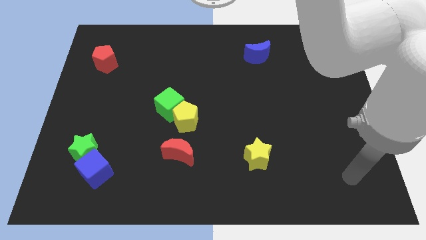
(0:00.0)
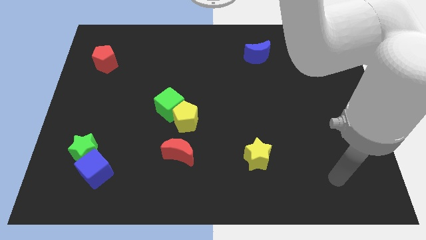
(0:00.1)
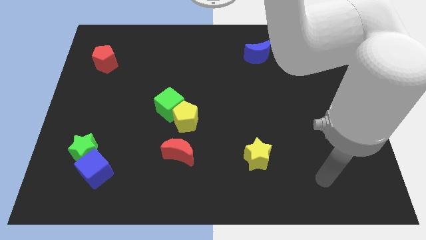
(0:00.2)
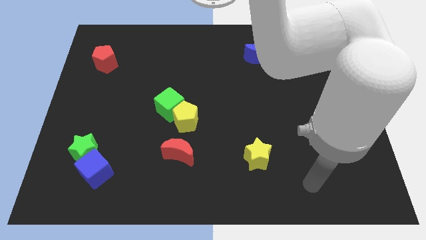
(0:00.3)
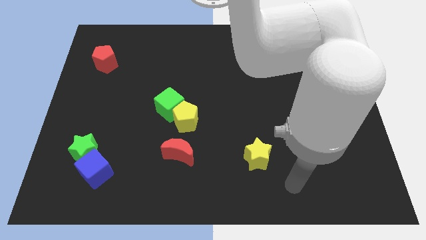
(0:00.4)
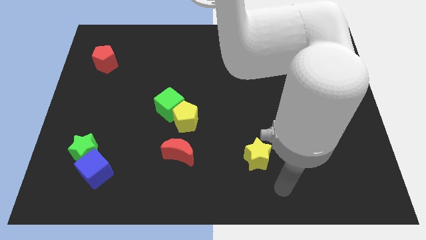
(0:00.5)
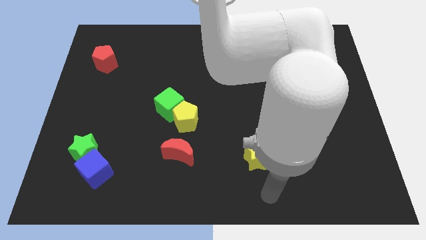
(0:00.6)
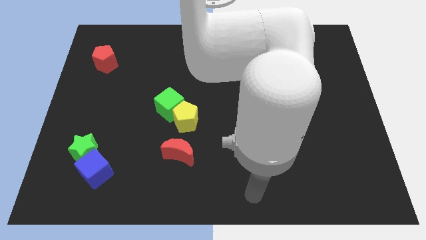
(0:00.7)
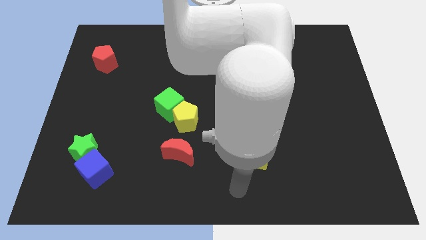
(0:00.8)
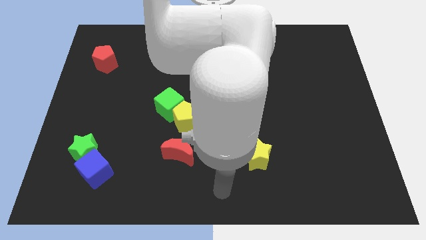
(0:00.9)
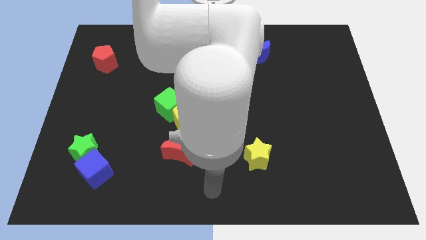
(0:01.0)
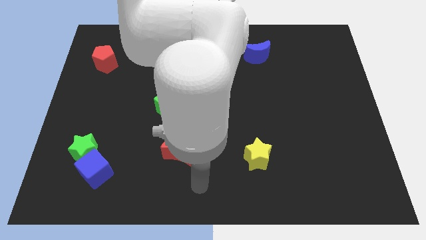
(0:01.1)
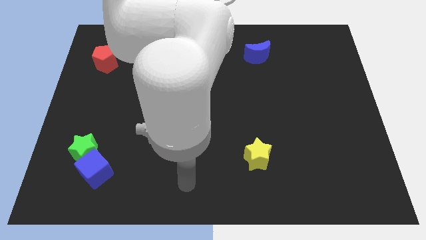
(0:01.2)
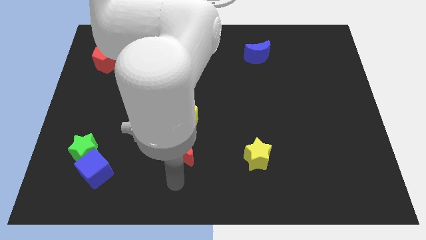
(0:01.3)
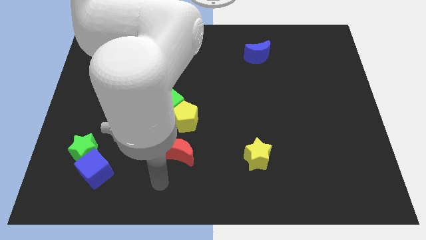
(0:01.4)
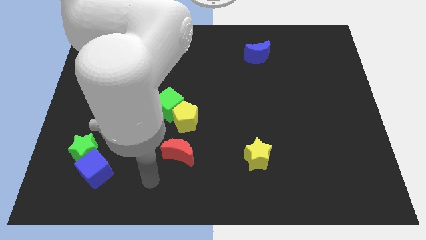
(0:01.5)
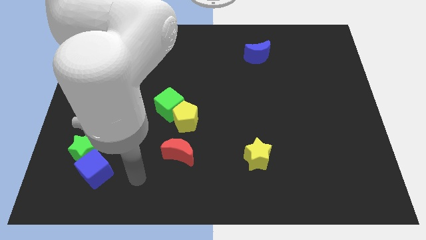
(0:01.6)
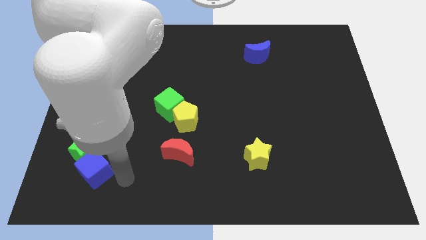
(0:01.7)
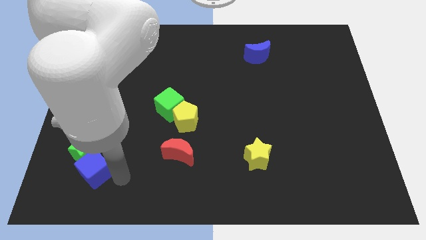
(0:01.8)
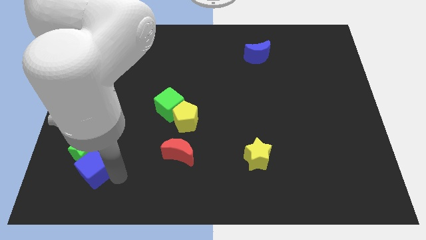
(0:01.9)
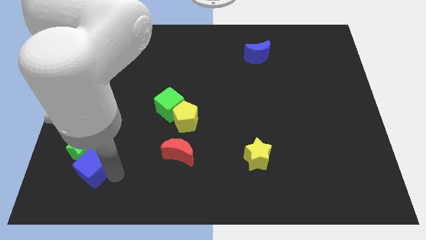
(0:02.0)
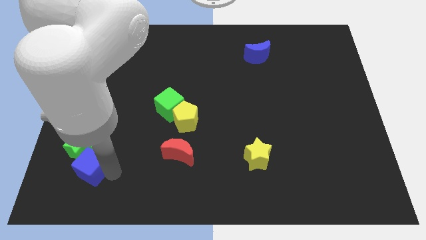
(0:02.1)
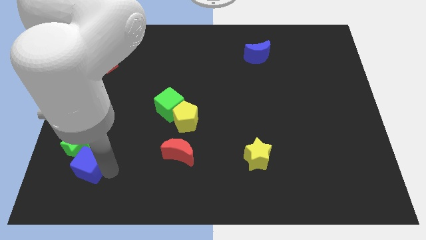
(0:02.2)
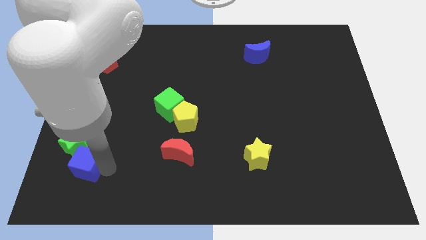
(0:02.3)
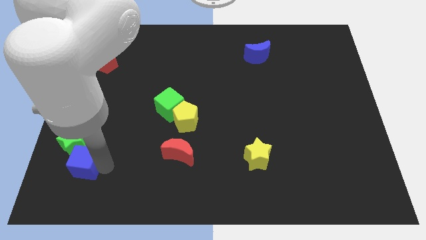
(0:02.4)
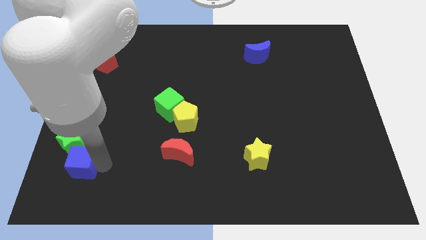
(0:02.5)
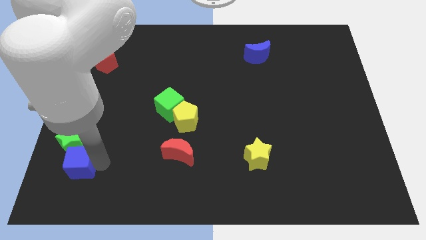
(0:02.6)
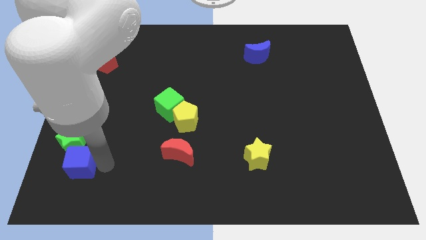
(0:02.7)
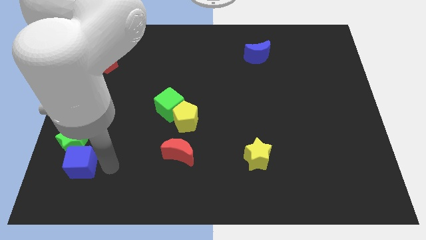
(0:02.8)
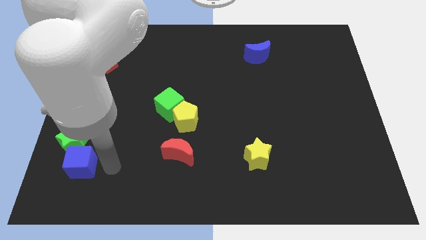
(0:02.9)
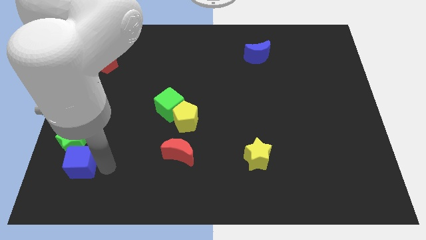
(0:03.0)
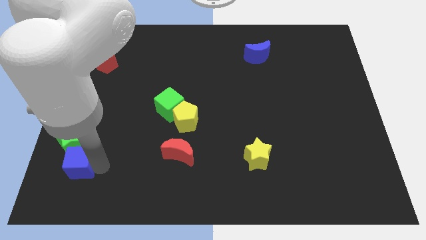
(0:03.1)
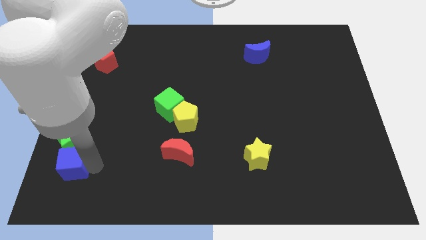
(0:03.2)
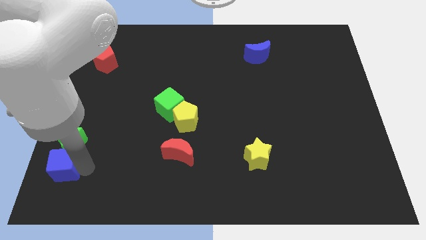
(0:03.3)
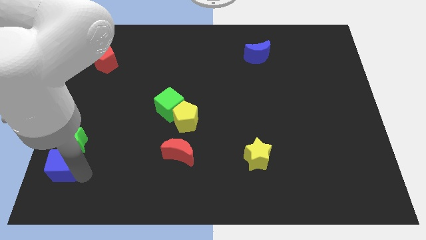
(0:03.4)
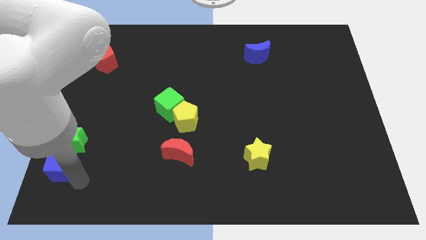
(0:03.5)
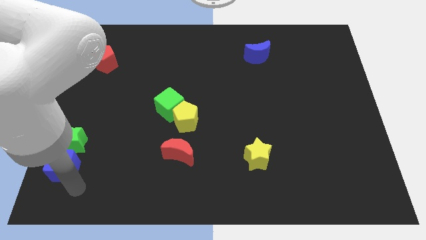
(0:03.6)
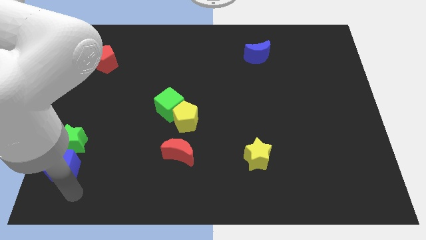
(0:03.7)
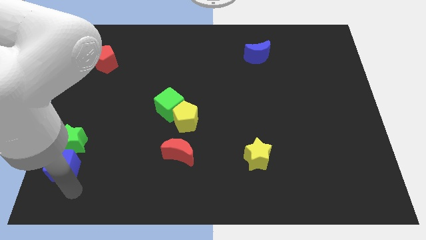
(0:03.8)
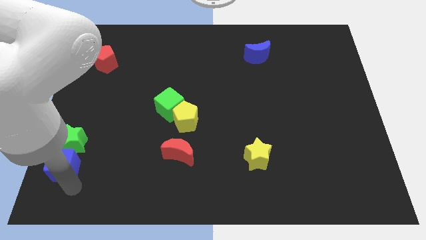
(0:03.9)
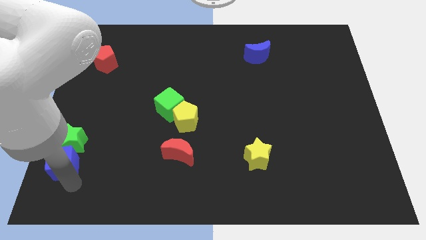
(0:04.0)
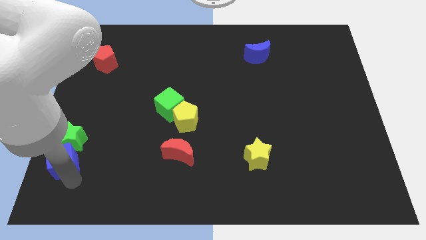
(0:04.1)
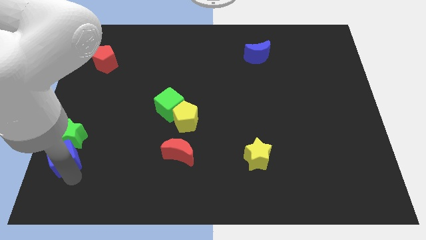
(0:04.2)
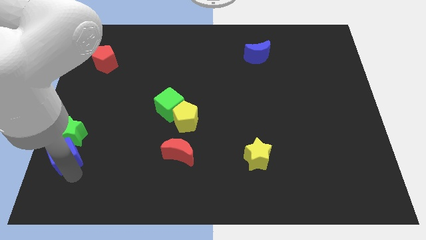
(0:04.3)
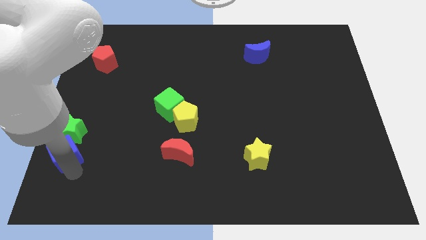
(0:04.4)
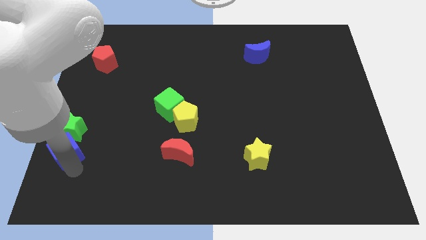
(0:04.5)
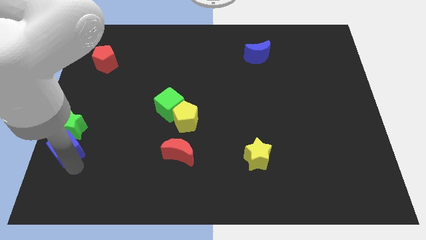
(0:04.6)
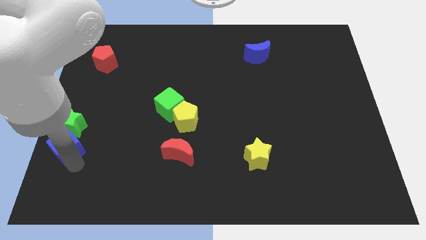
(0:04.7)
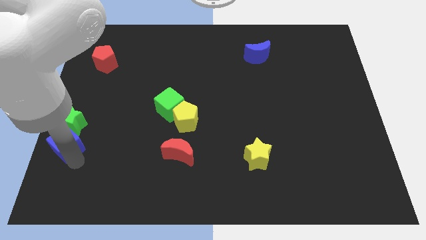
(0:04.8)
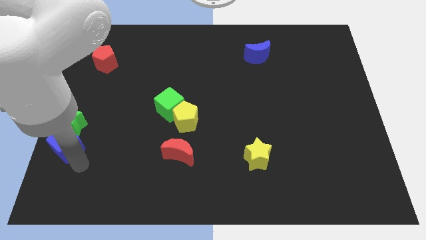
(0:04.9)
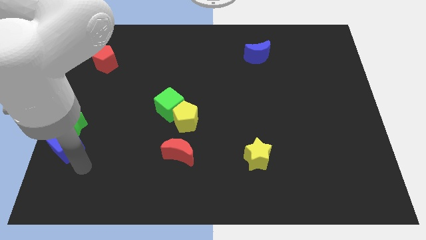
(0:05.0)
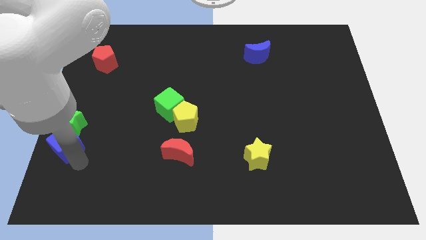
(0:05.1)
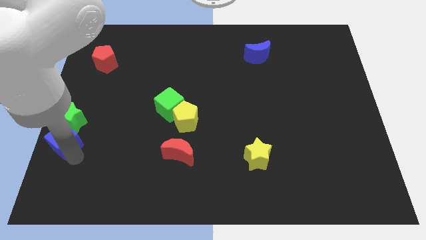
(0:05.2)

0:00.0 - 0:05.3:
push the blue cube to the left side
